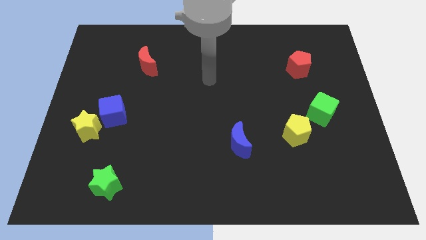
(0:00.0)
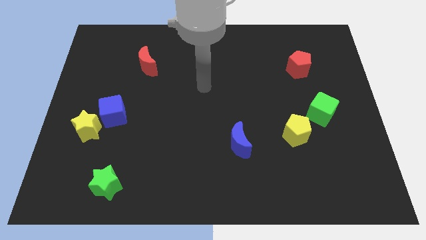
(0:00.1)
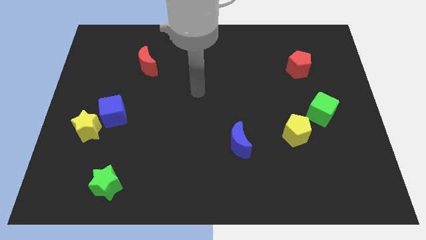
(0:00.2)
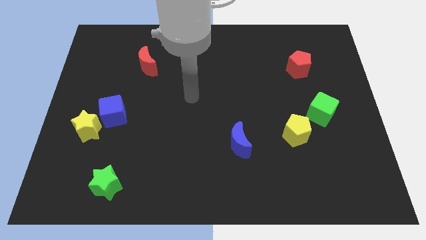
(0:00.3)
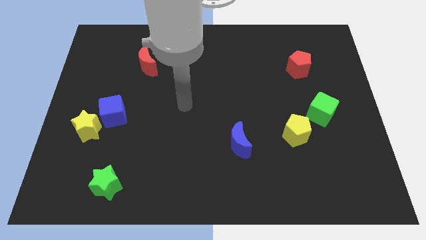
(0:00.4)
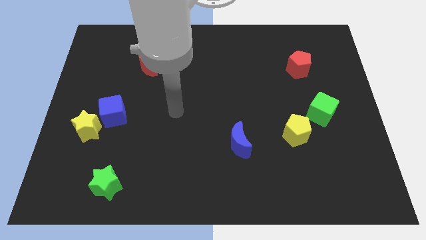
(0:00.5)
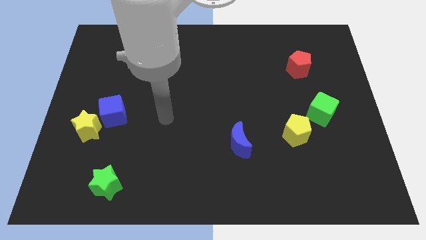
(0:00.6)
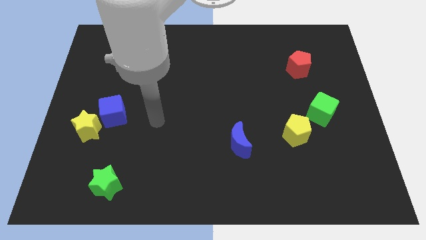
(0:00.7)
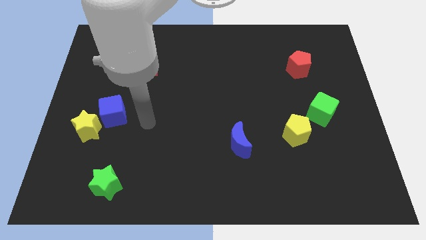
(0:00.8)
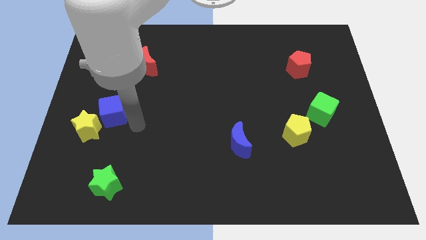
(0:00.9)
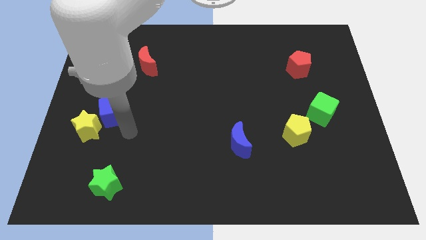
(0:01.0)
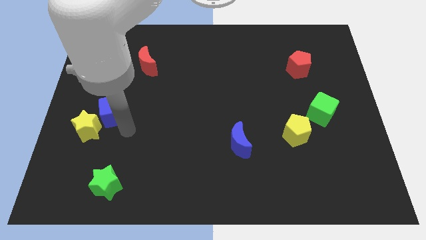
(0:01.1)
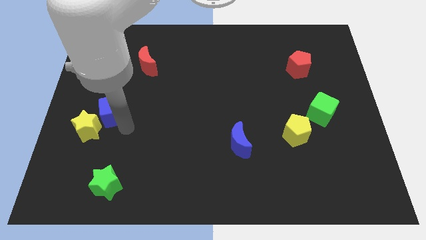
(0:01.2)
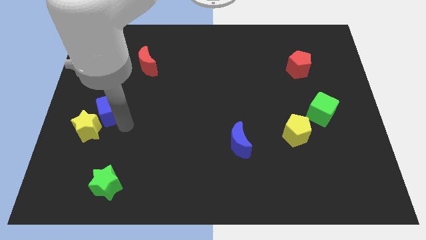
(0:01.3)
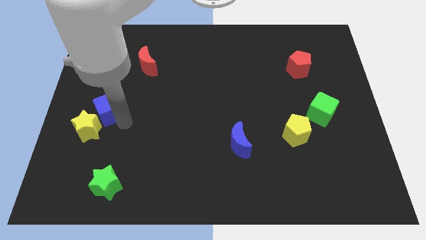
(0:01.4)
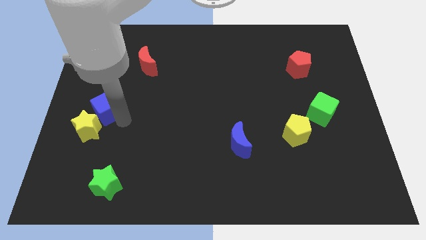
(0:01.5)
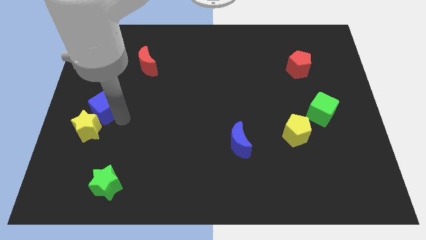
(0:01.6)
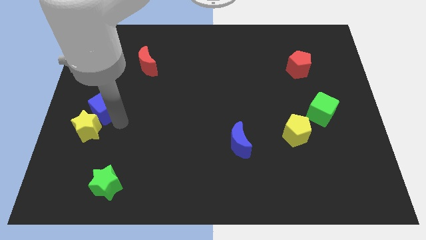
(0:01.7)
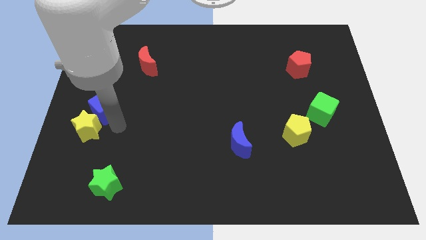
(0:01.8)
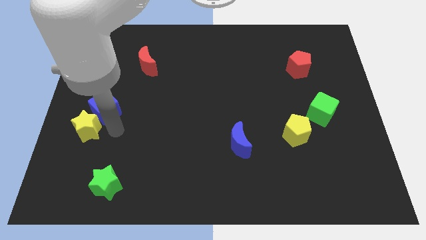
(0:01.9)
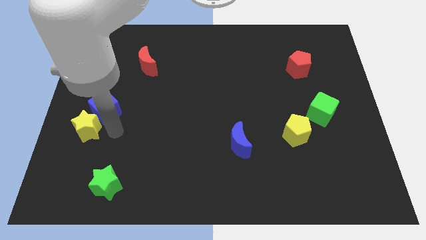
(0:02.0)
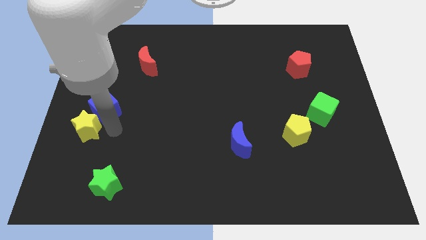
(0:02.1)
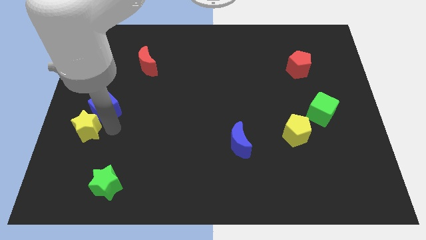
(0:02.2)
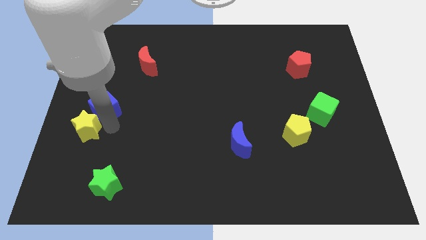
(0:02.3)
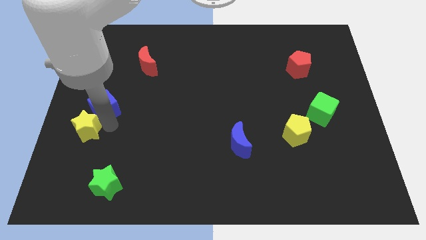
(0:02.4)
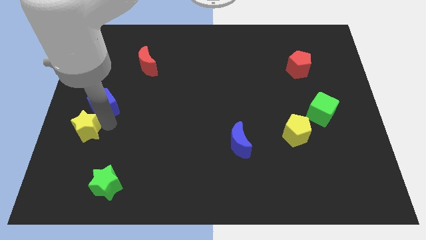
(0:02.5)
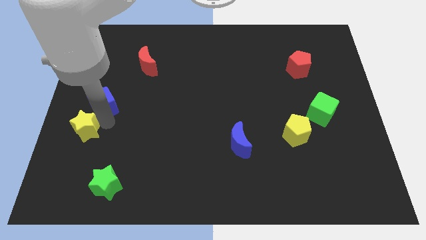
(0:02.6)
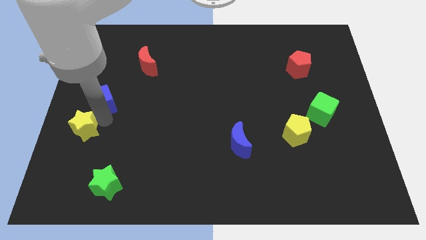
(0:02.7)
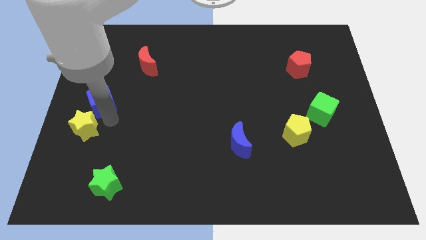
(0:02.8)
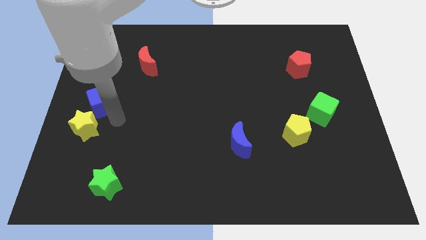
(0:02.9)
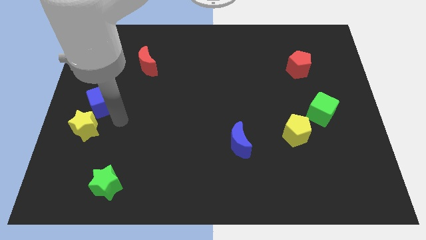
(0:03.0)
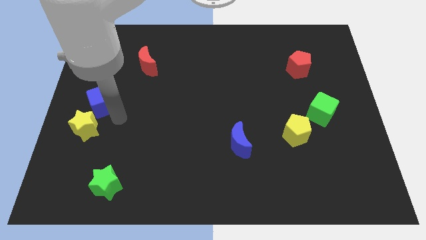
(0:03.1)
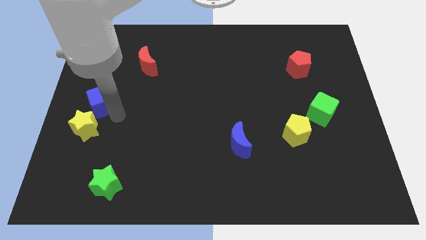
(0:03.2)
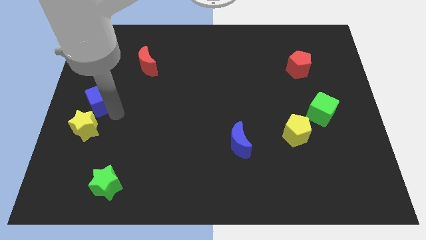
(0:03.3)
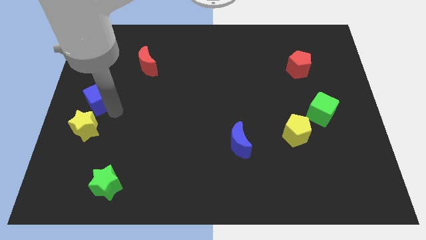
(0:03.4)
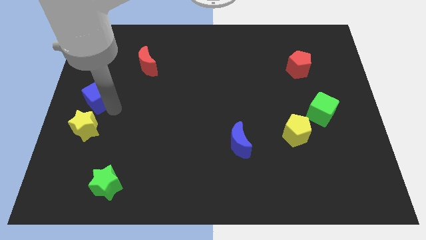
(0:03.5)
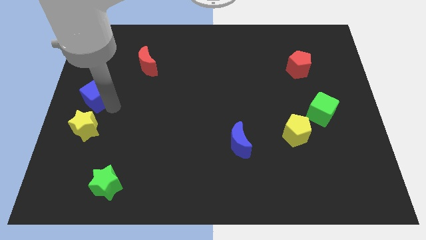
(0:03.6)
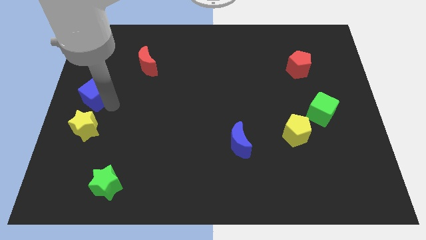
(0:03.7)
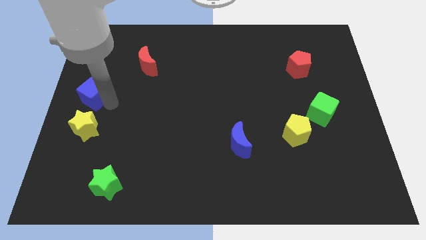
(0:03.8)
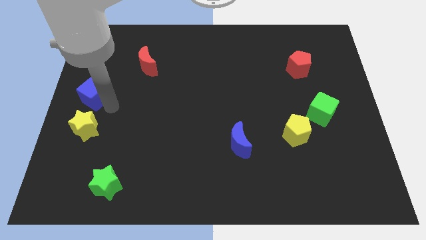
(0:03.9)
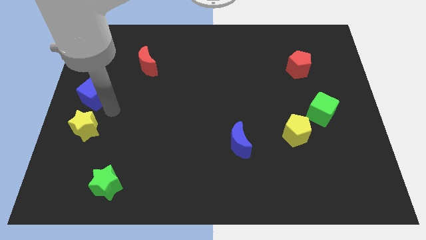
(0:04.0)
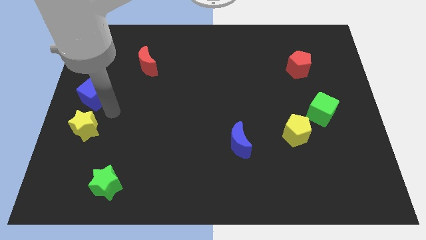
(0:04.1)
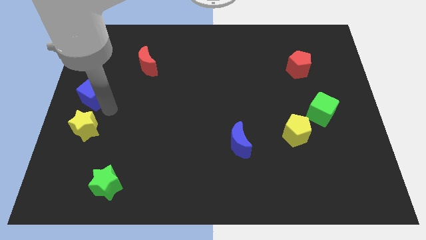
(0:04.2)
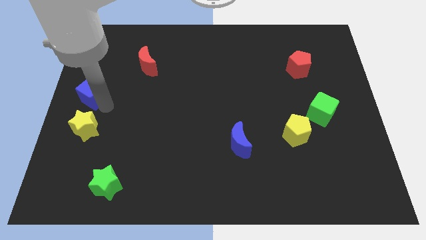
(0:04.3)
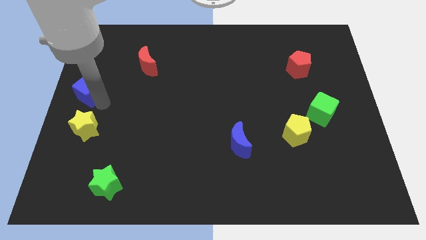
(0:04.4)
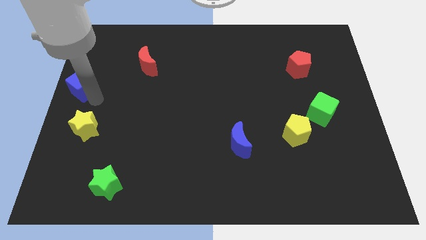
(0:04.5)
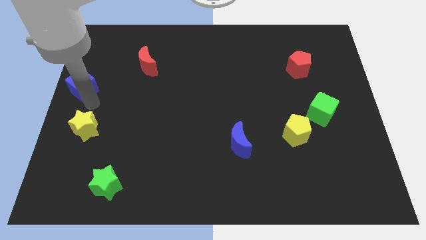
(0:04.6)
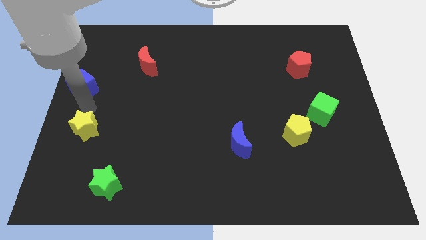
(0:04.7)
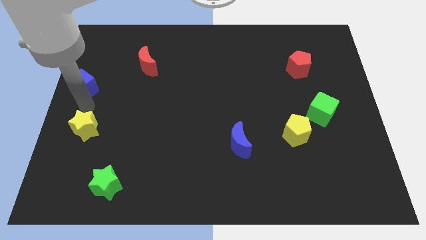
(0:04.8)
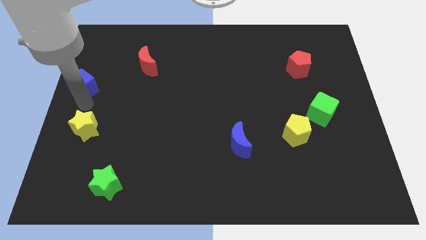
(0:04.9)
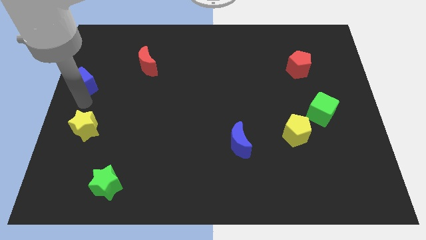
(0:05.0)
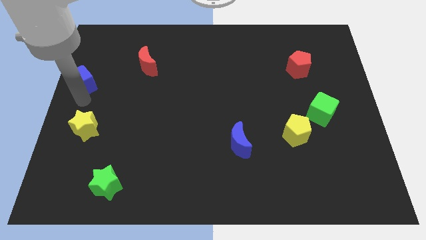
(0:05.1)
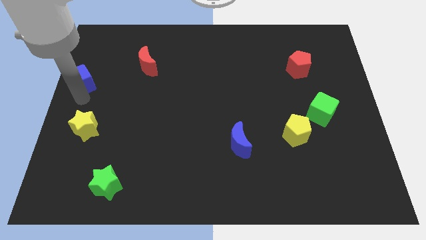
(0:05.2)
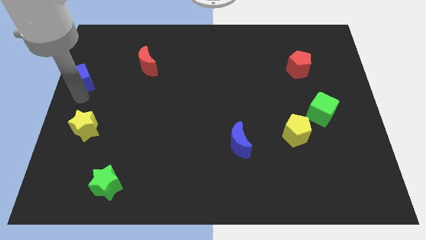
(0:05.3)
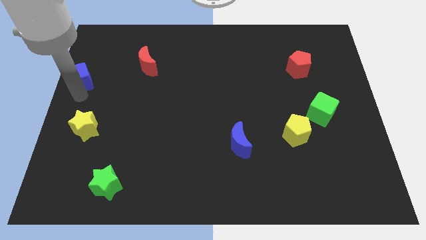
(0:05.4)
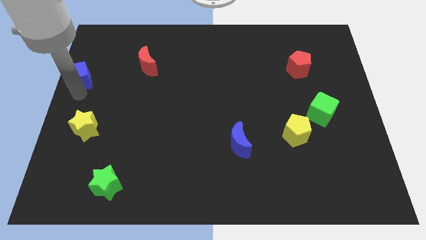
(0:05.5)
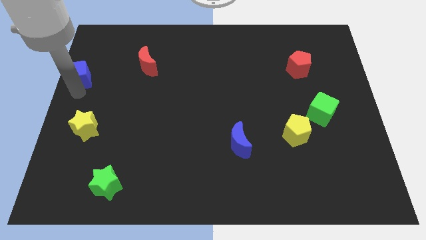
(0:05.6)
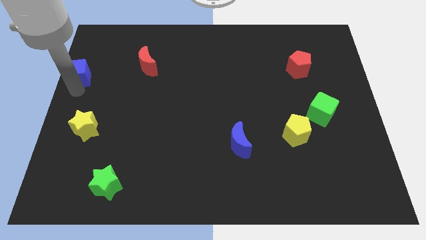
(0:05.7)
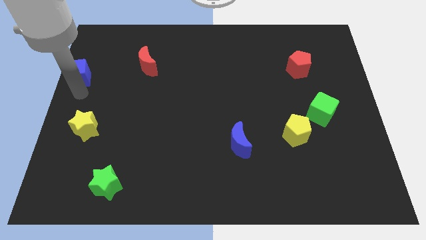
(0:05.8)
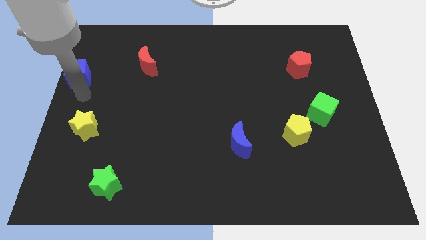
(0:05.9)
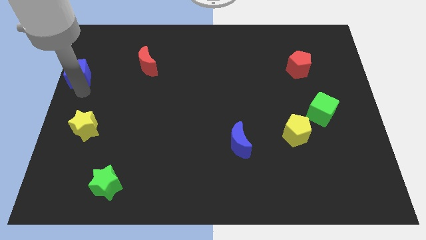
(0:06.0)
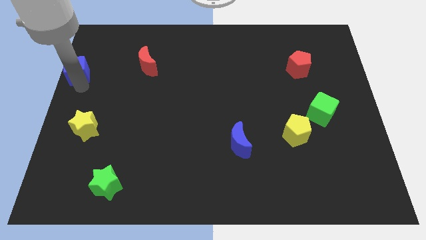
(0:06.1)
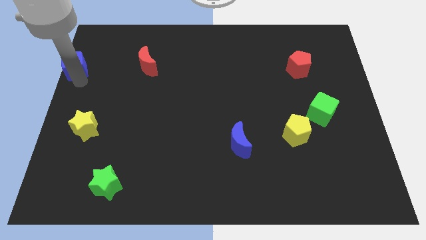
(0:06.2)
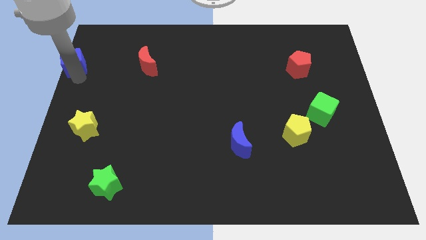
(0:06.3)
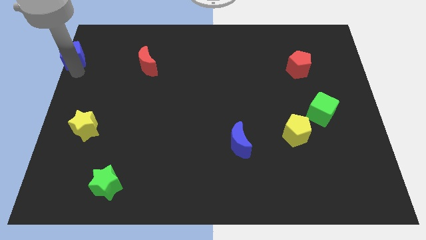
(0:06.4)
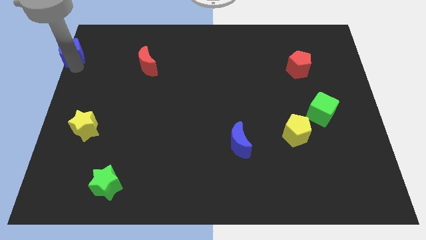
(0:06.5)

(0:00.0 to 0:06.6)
put the blue cube to the top left

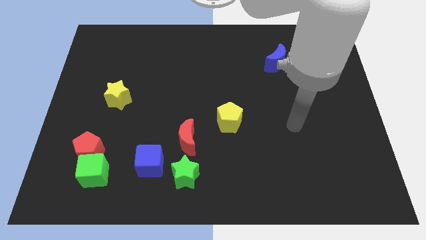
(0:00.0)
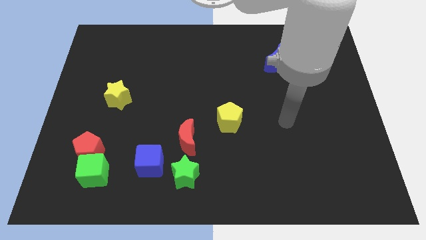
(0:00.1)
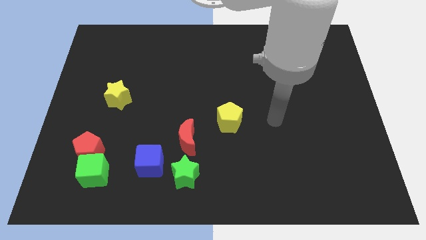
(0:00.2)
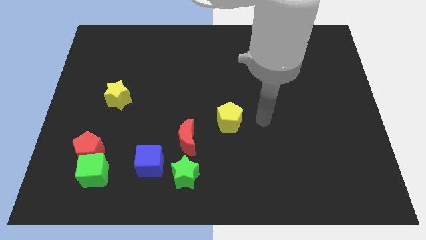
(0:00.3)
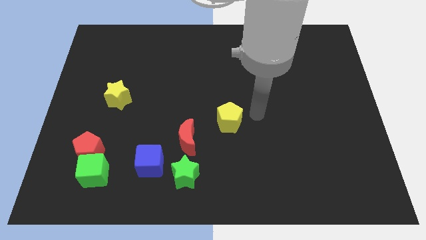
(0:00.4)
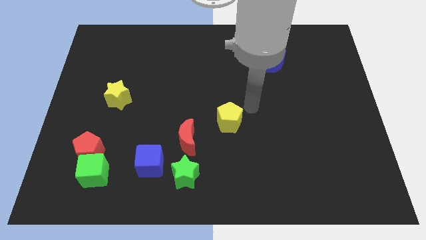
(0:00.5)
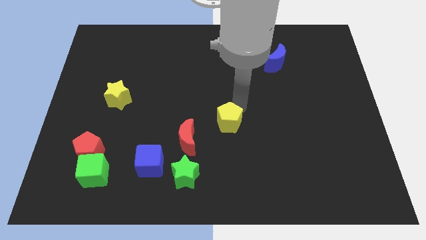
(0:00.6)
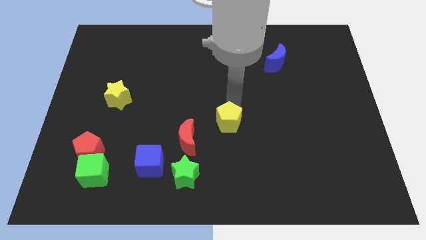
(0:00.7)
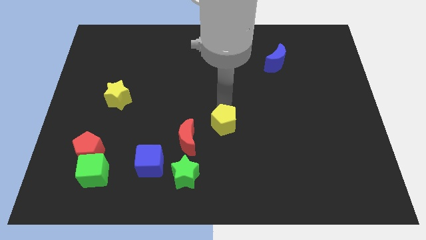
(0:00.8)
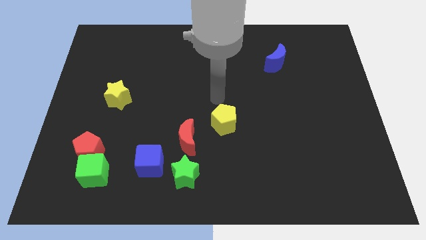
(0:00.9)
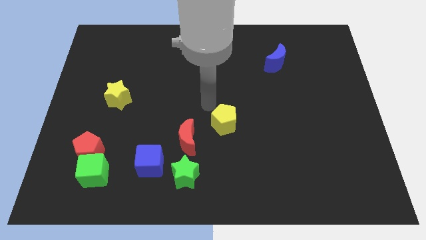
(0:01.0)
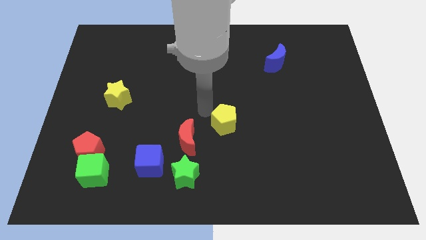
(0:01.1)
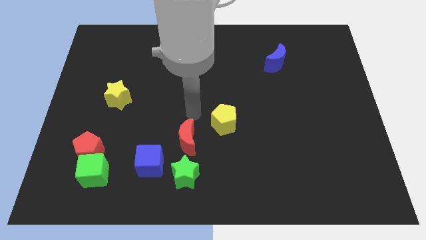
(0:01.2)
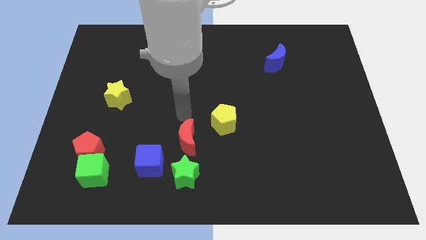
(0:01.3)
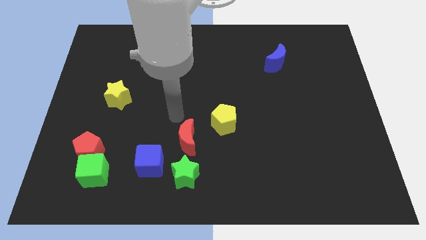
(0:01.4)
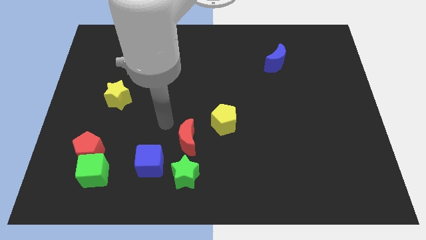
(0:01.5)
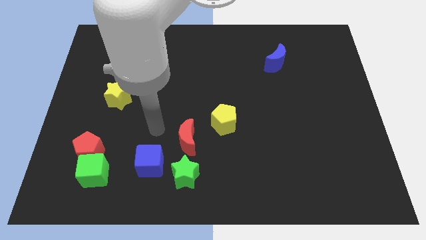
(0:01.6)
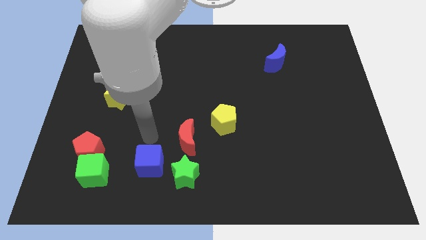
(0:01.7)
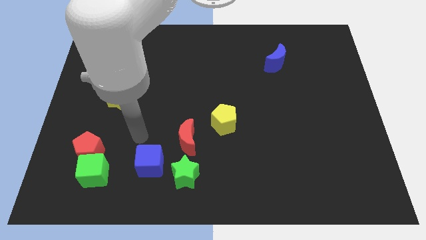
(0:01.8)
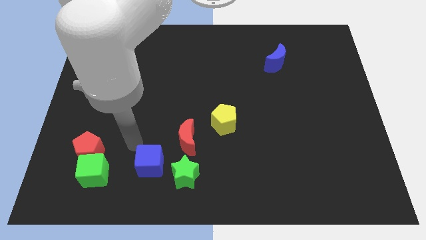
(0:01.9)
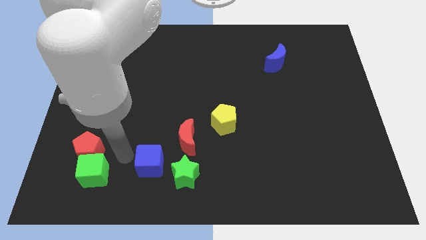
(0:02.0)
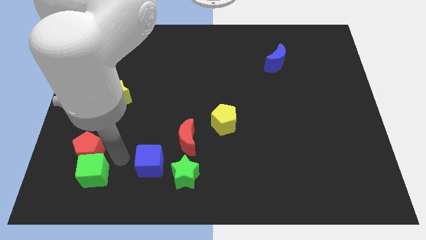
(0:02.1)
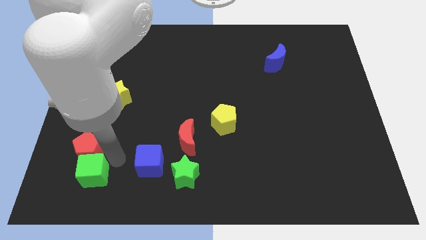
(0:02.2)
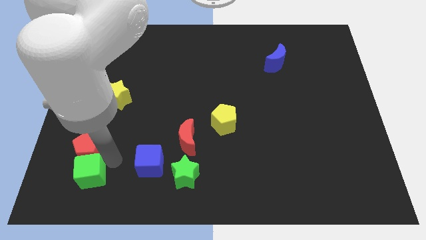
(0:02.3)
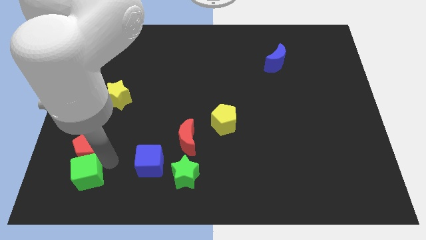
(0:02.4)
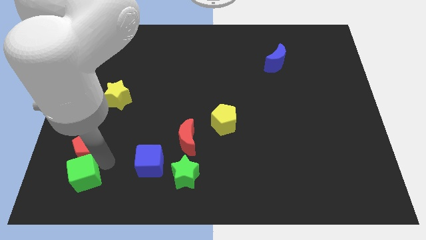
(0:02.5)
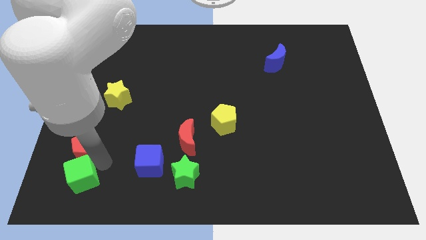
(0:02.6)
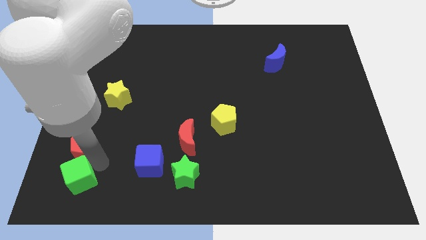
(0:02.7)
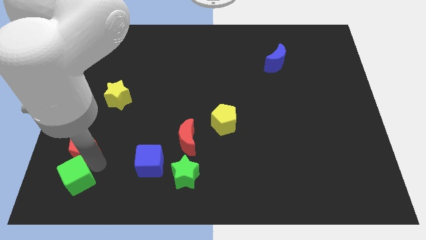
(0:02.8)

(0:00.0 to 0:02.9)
slide the green cube to the bottom left
